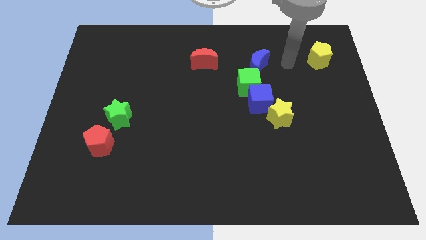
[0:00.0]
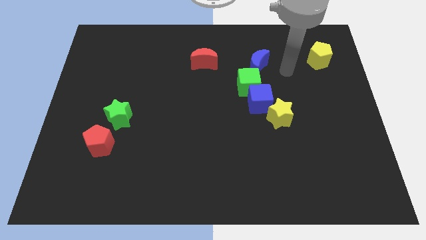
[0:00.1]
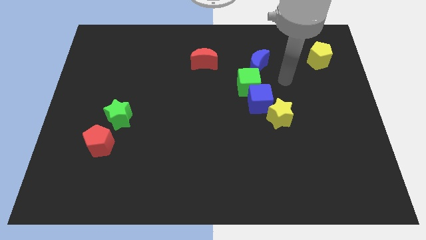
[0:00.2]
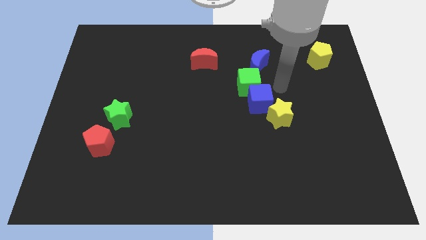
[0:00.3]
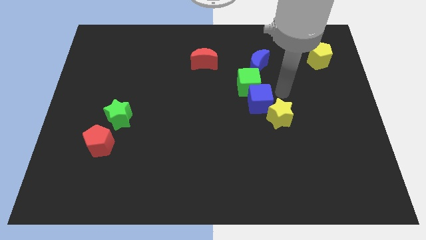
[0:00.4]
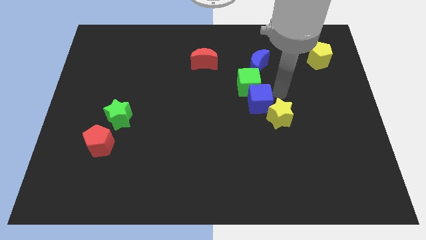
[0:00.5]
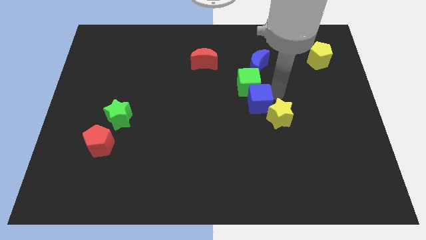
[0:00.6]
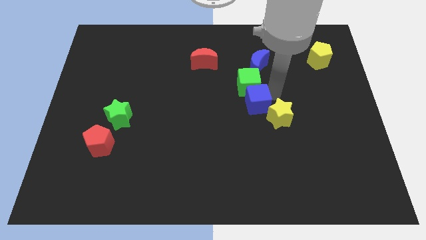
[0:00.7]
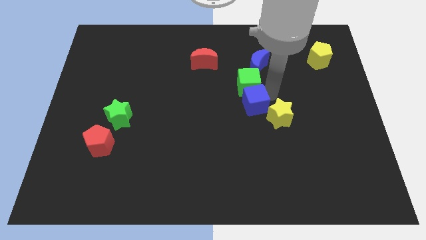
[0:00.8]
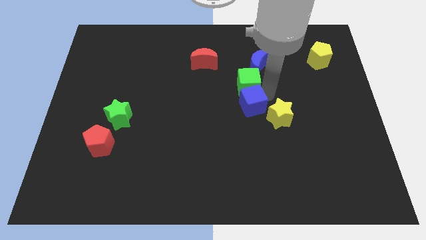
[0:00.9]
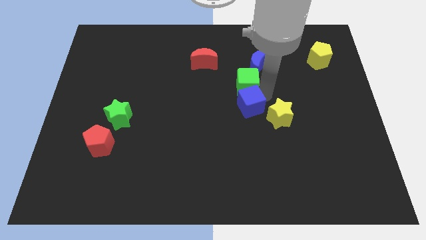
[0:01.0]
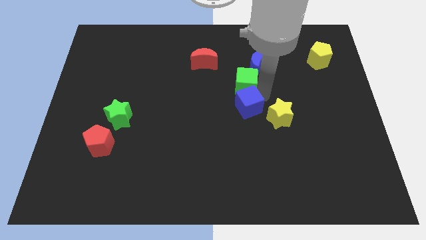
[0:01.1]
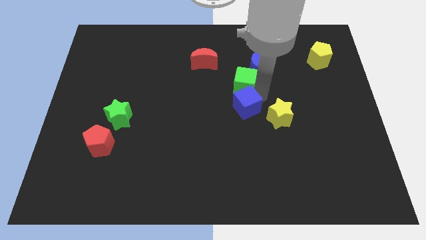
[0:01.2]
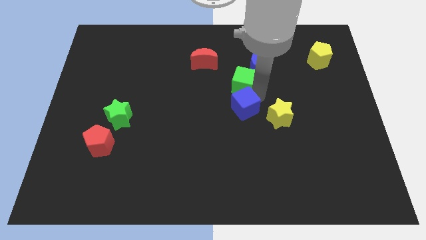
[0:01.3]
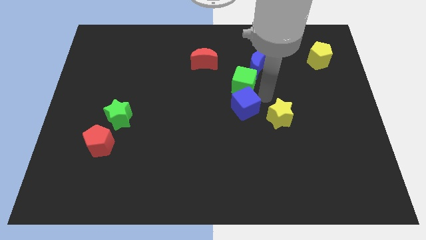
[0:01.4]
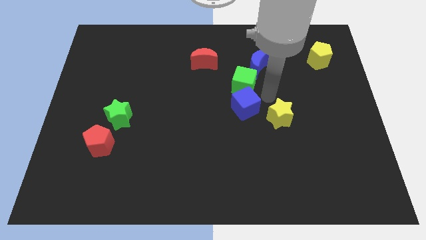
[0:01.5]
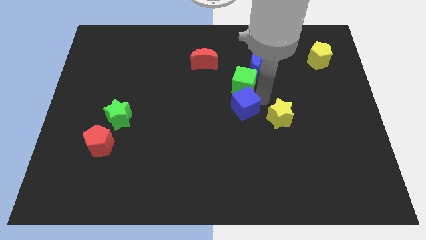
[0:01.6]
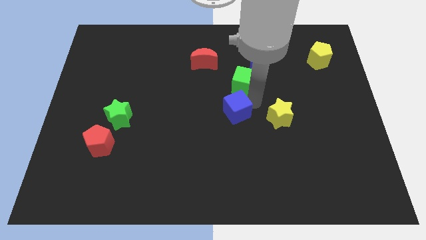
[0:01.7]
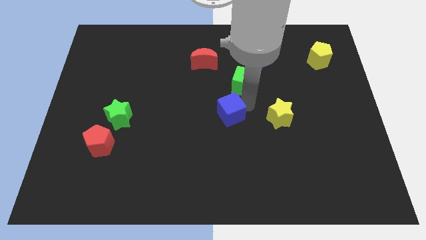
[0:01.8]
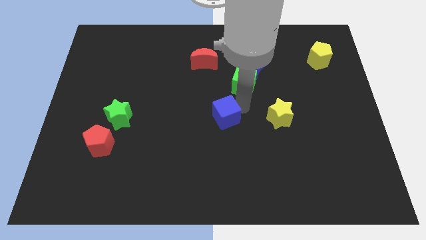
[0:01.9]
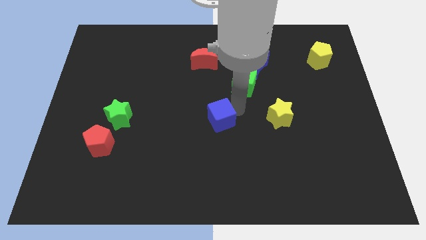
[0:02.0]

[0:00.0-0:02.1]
separate the blue cube from the green cube and yellow star

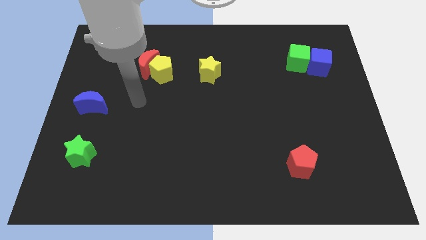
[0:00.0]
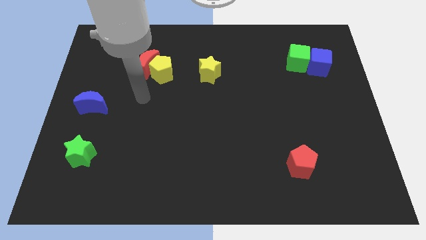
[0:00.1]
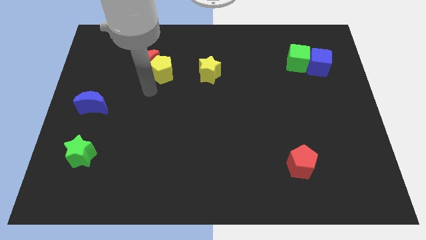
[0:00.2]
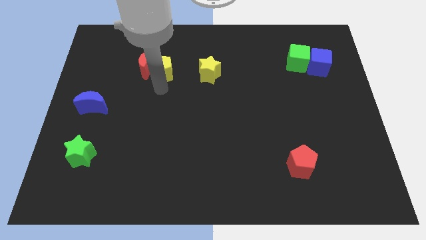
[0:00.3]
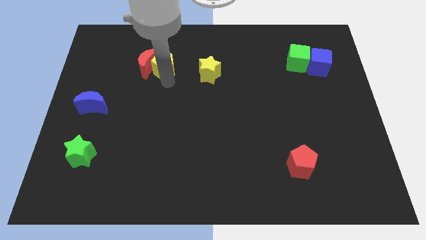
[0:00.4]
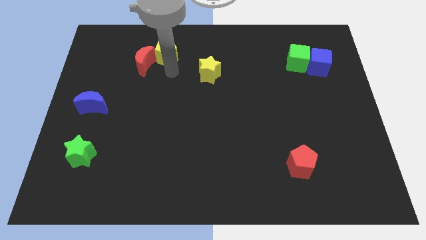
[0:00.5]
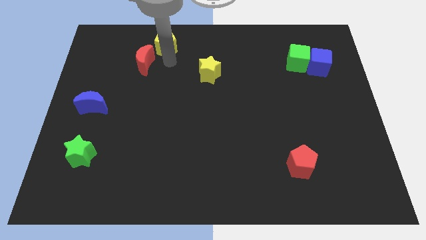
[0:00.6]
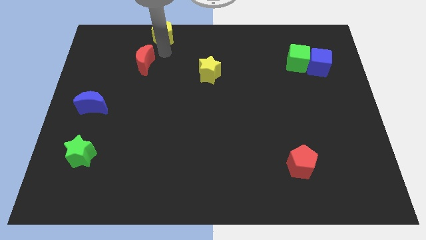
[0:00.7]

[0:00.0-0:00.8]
pull the red moon apart from the yellow pentagon

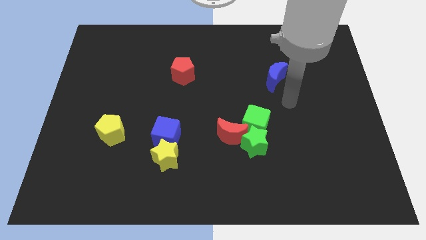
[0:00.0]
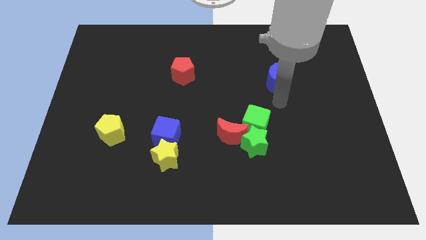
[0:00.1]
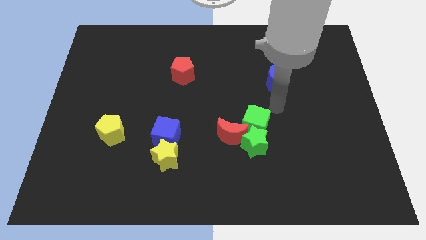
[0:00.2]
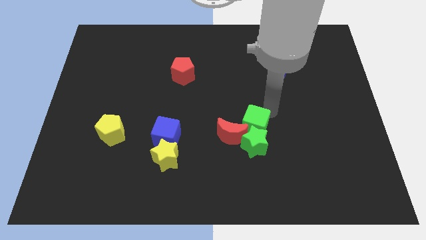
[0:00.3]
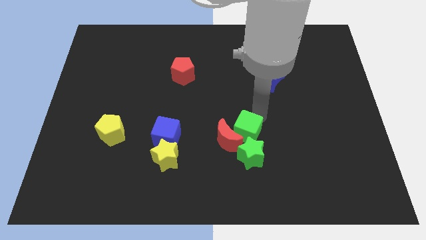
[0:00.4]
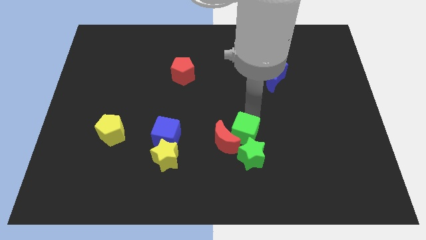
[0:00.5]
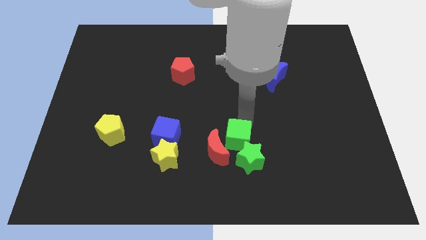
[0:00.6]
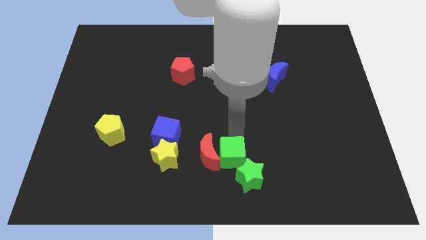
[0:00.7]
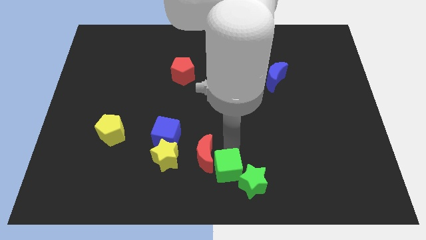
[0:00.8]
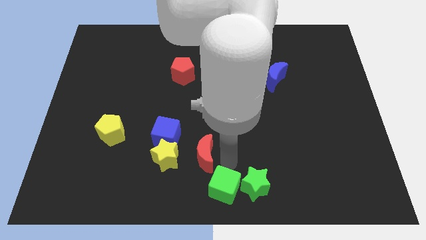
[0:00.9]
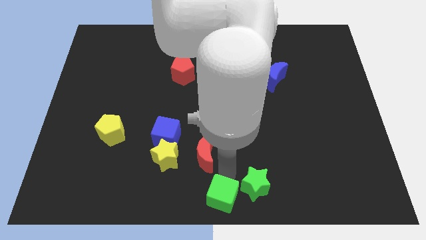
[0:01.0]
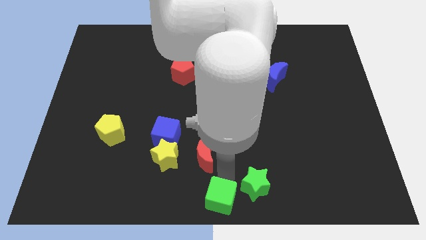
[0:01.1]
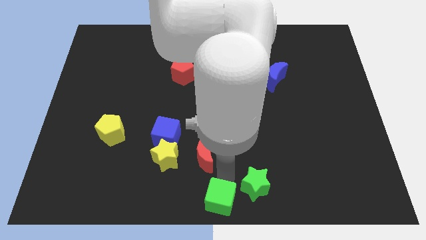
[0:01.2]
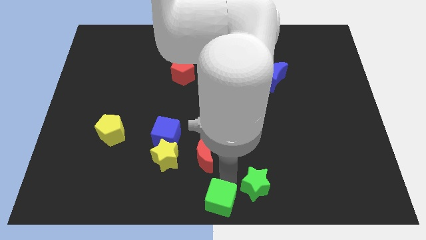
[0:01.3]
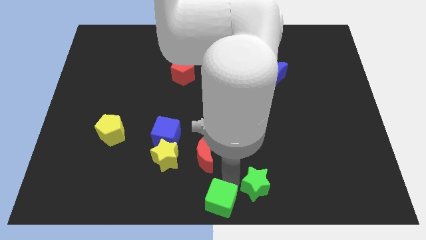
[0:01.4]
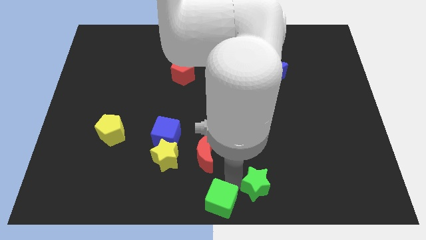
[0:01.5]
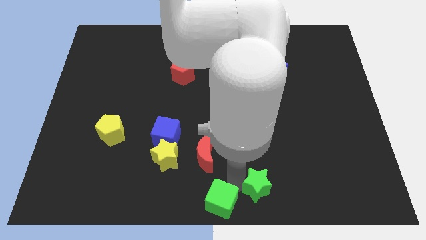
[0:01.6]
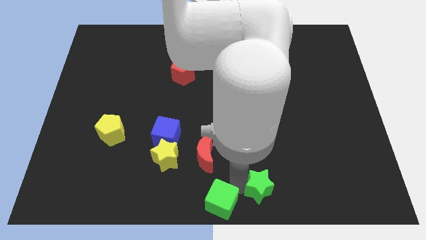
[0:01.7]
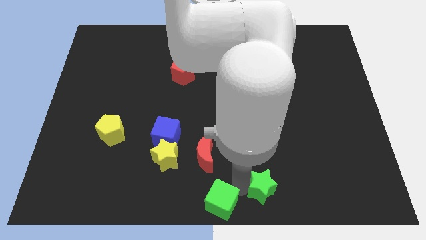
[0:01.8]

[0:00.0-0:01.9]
move the green star away from the green cube and red moon

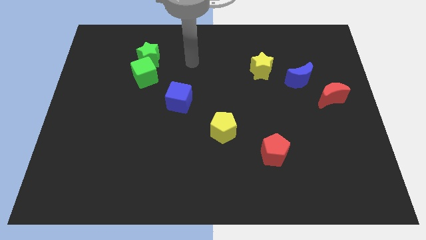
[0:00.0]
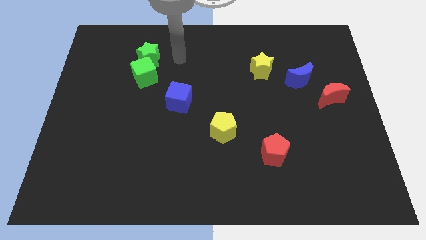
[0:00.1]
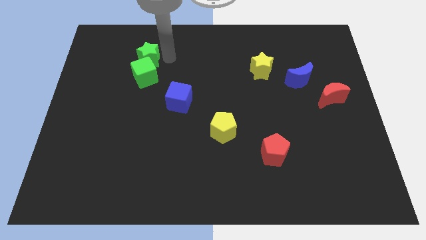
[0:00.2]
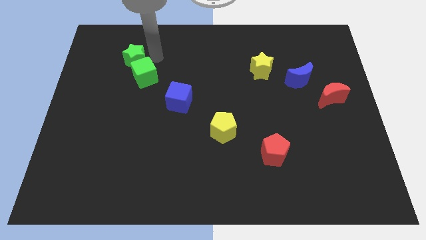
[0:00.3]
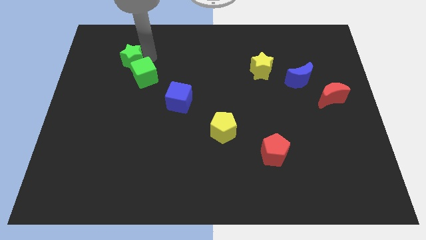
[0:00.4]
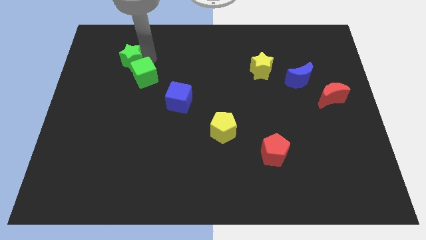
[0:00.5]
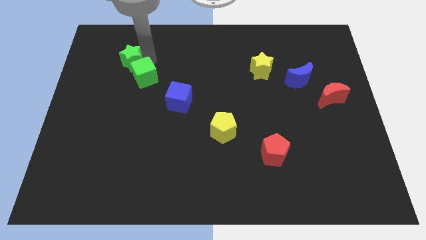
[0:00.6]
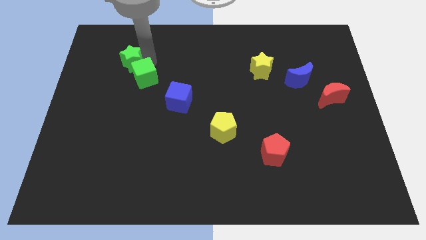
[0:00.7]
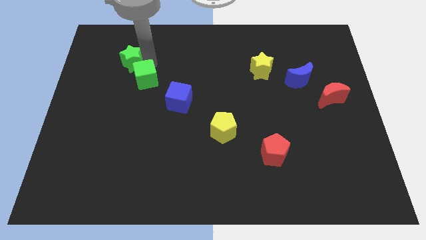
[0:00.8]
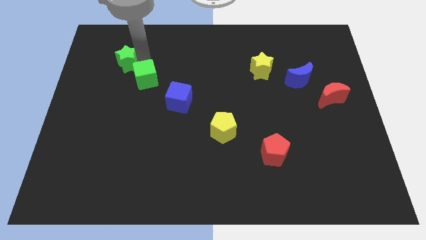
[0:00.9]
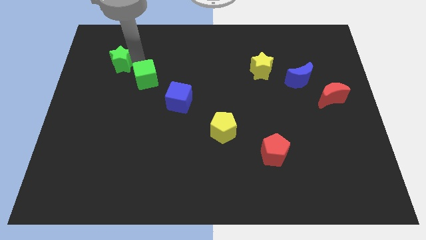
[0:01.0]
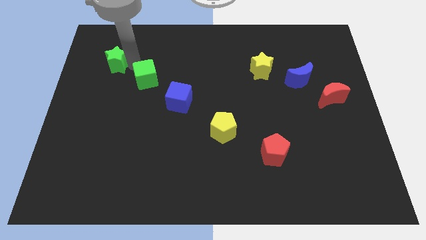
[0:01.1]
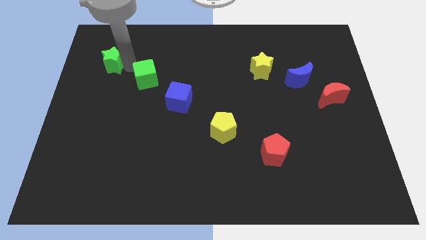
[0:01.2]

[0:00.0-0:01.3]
pull the green cube apart from the green star

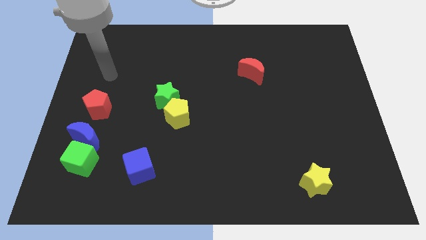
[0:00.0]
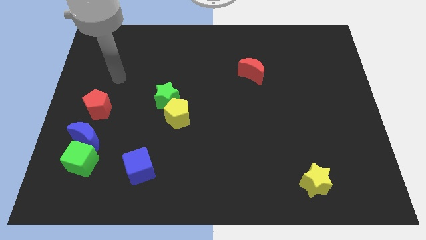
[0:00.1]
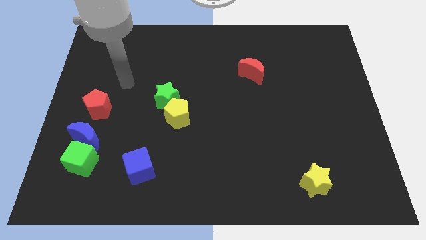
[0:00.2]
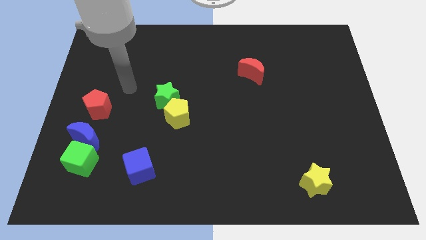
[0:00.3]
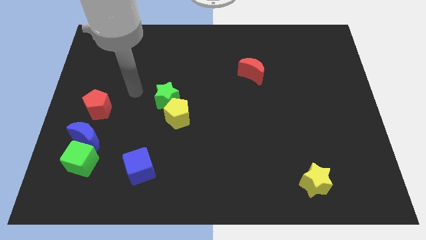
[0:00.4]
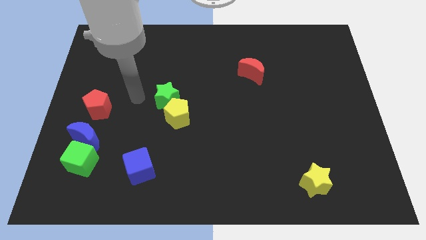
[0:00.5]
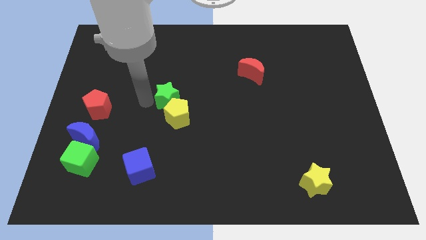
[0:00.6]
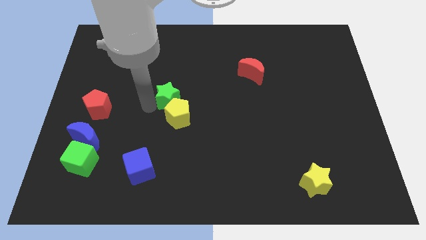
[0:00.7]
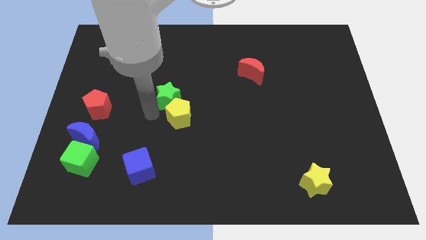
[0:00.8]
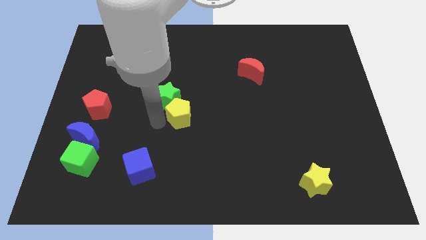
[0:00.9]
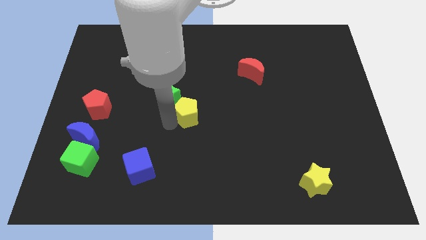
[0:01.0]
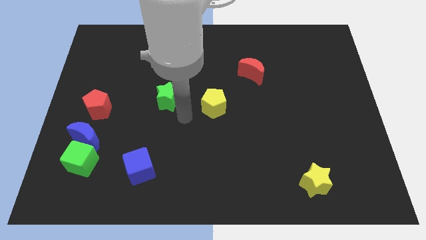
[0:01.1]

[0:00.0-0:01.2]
move the green star away from the yellow pentagon

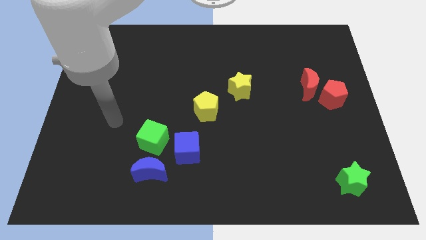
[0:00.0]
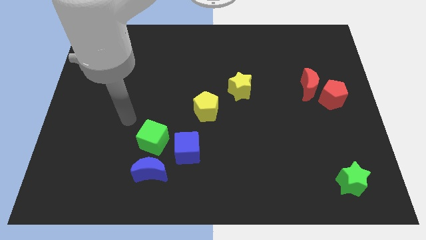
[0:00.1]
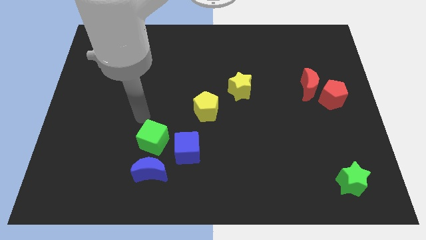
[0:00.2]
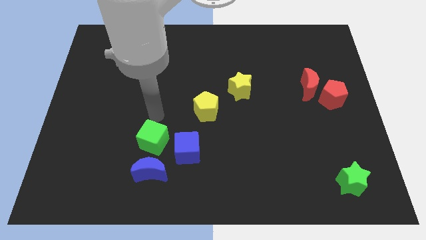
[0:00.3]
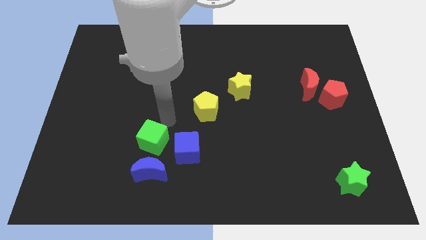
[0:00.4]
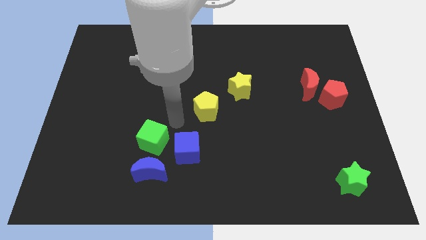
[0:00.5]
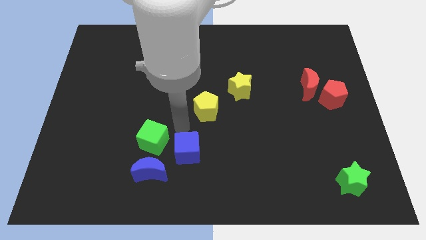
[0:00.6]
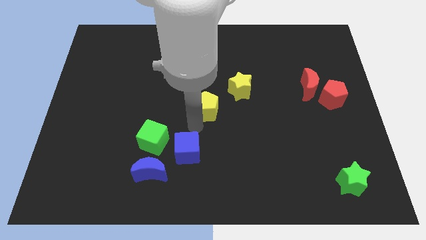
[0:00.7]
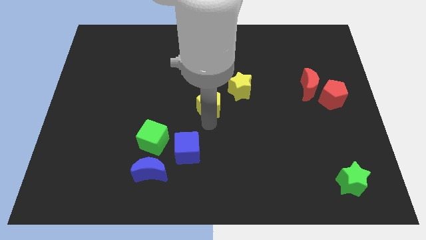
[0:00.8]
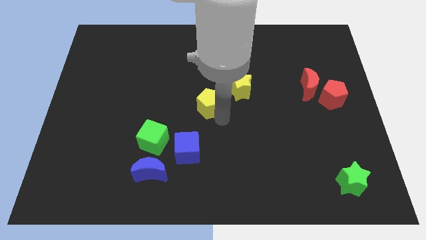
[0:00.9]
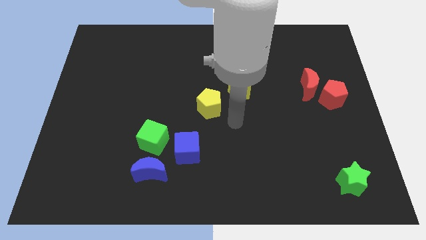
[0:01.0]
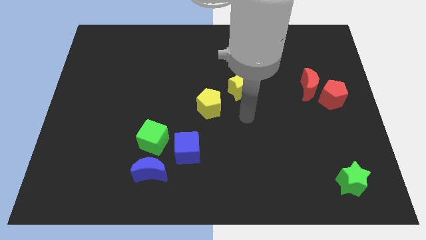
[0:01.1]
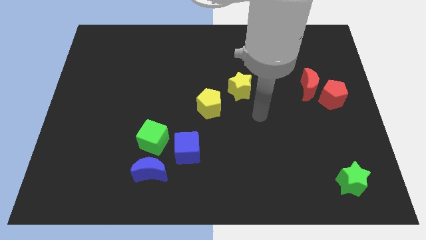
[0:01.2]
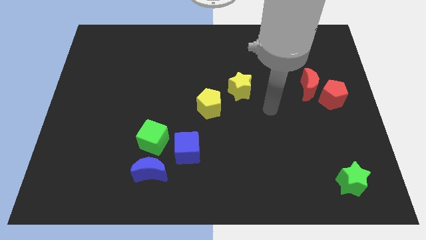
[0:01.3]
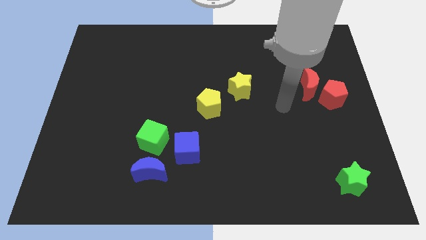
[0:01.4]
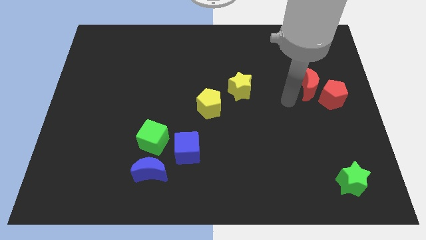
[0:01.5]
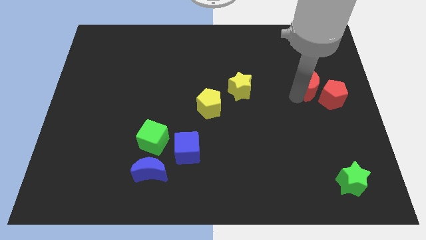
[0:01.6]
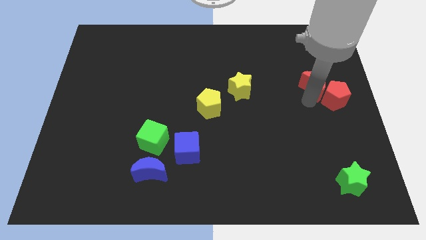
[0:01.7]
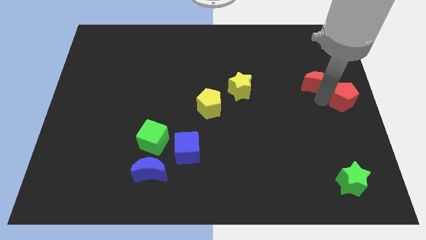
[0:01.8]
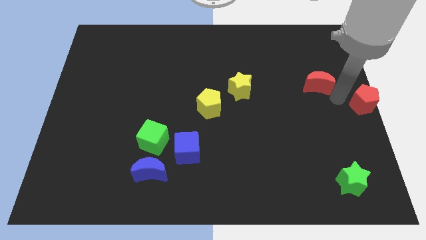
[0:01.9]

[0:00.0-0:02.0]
pull the red moon apart from the red pentagon

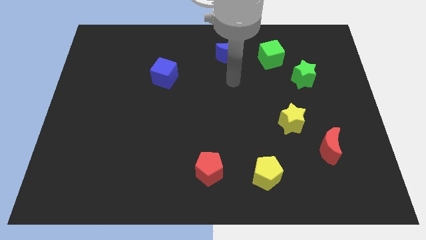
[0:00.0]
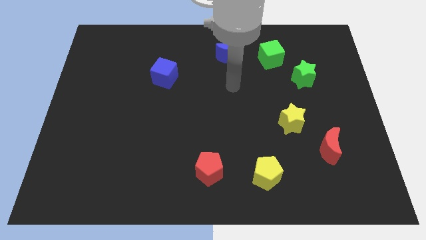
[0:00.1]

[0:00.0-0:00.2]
pull the red moon apart from the yellow star
